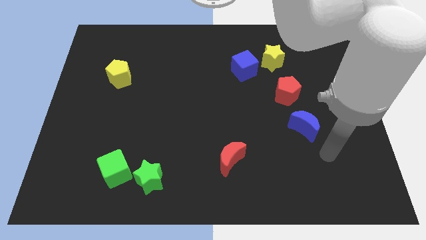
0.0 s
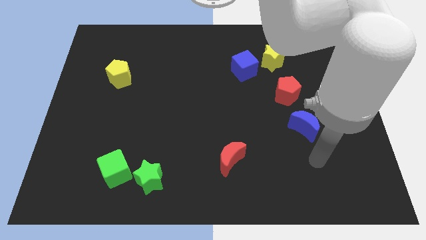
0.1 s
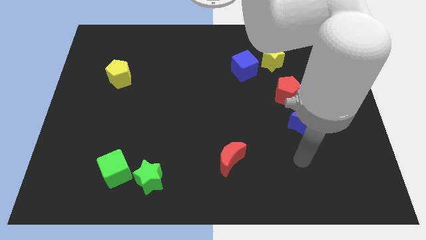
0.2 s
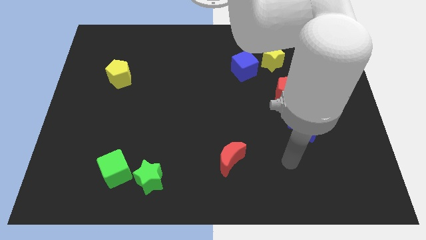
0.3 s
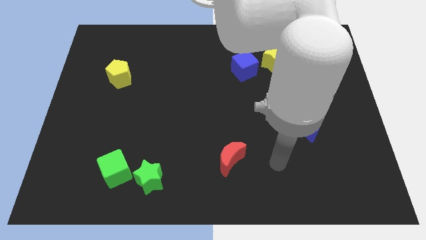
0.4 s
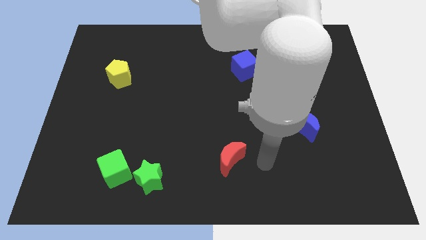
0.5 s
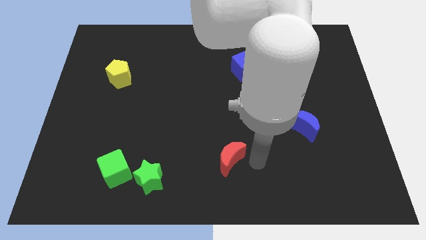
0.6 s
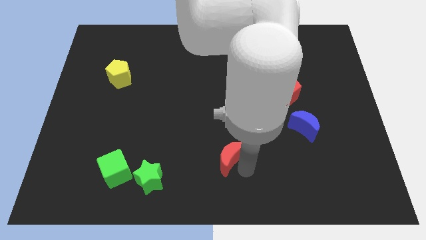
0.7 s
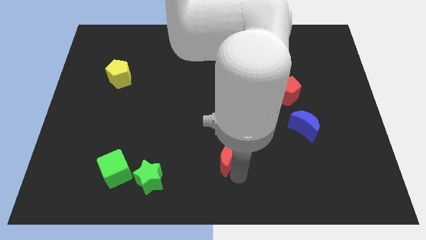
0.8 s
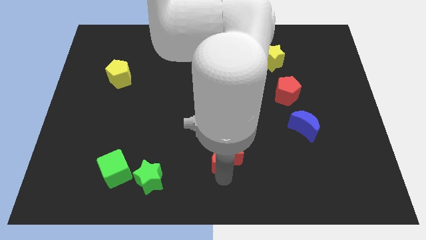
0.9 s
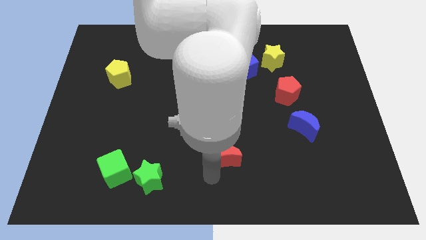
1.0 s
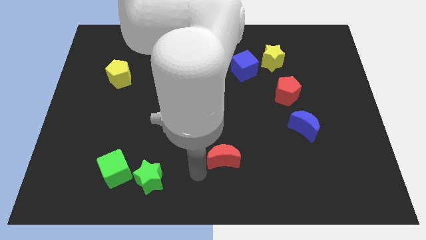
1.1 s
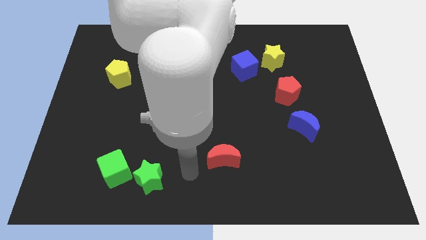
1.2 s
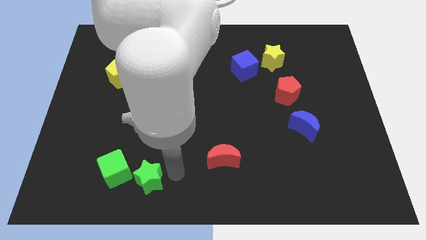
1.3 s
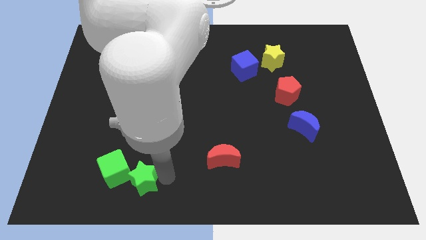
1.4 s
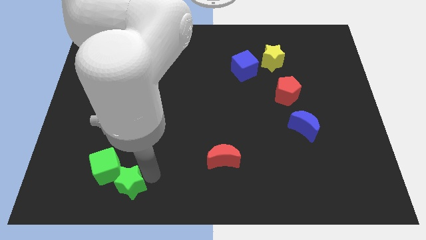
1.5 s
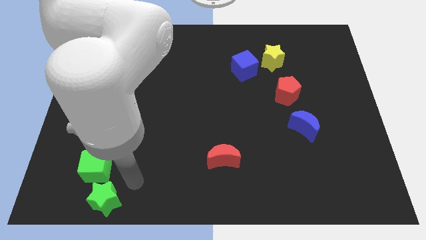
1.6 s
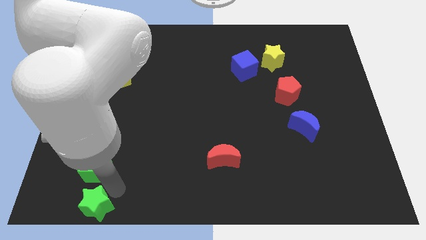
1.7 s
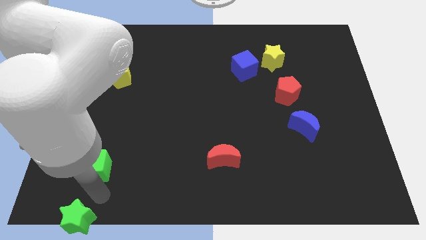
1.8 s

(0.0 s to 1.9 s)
pull the green cube apart from the green star

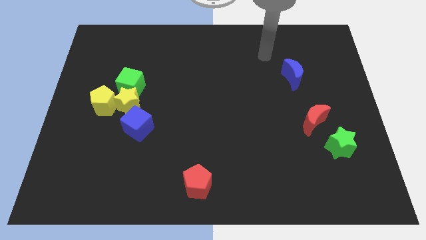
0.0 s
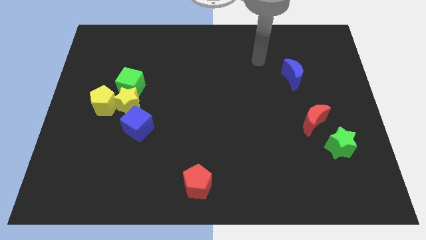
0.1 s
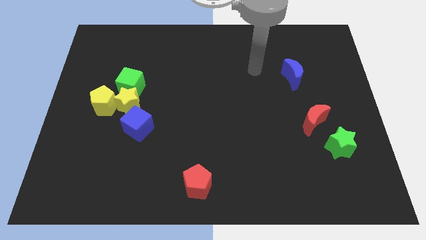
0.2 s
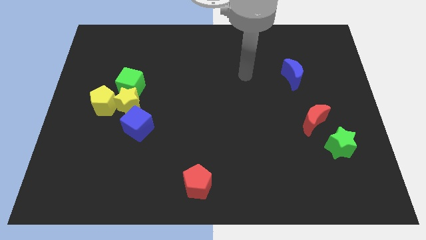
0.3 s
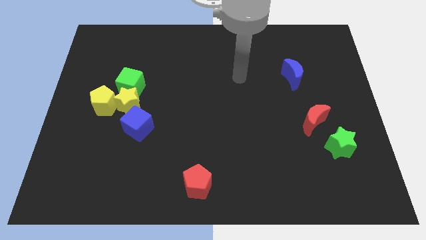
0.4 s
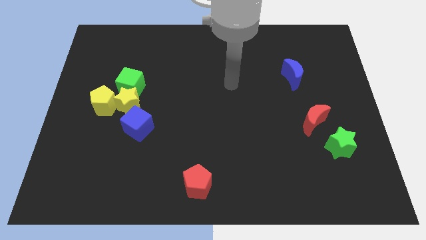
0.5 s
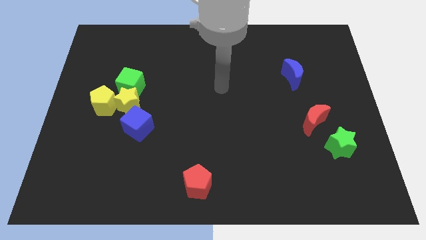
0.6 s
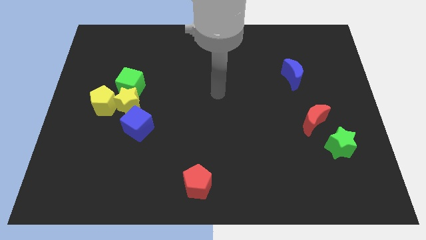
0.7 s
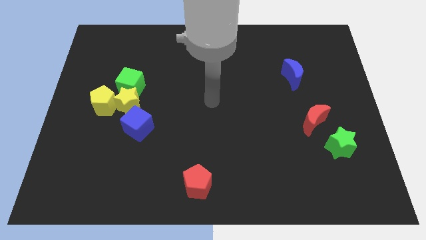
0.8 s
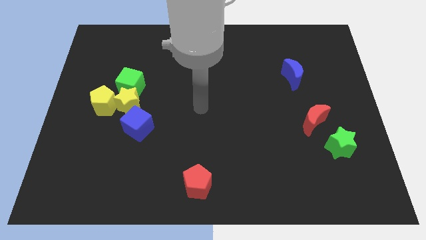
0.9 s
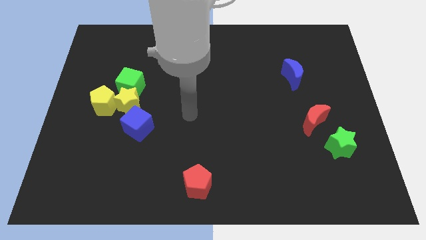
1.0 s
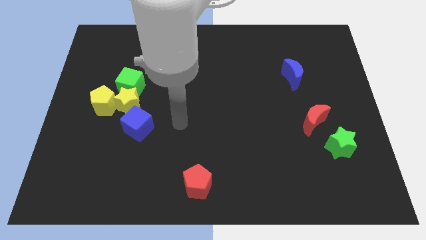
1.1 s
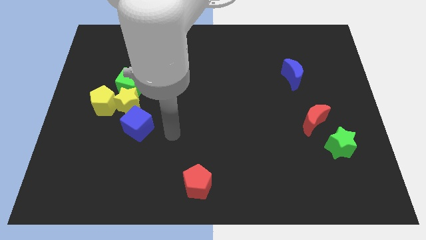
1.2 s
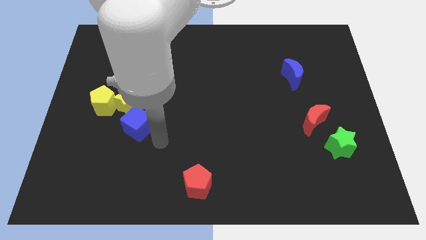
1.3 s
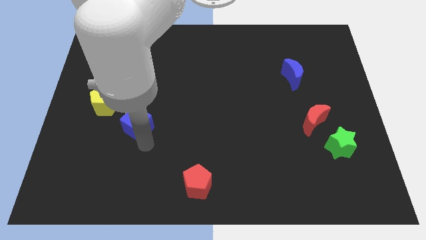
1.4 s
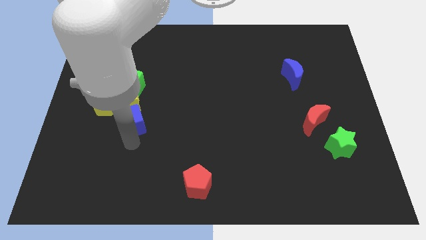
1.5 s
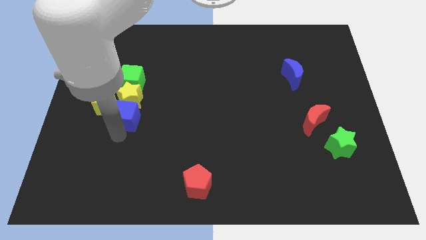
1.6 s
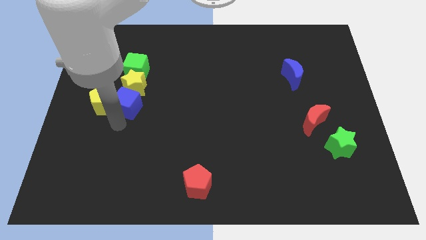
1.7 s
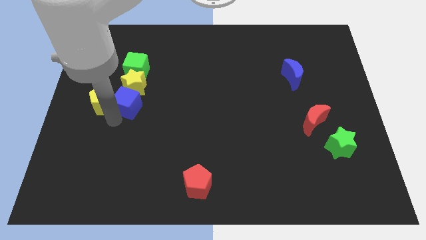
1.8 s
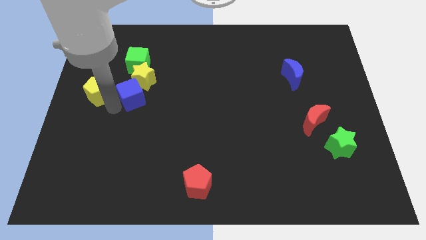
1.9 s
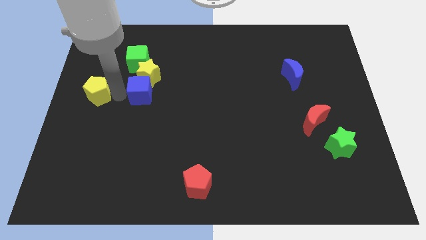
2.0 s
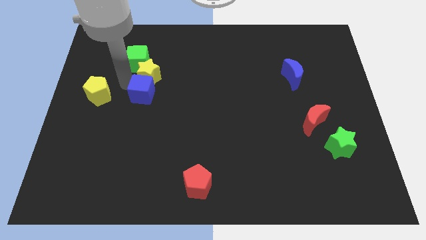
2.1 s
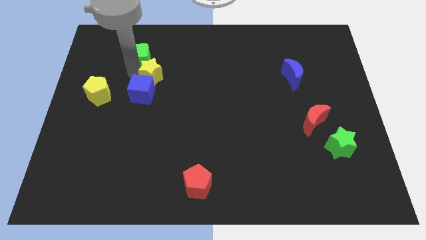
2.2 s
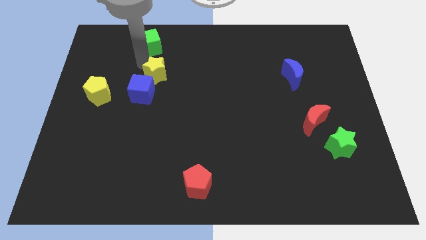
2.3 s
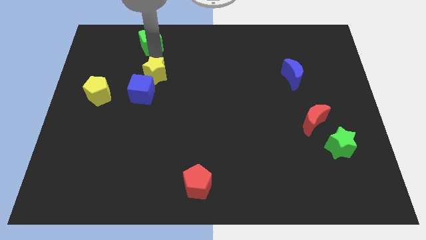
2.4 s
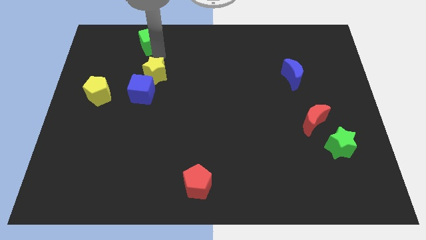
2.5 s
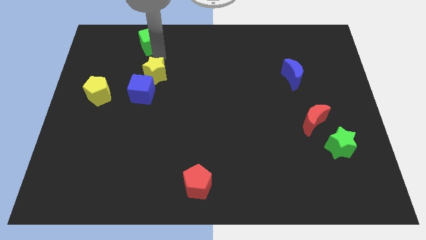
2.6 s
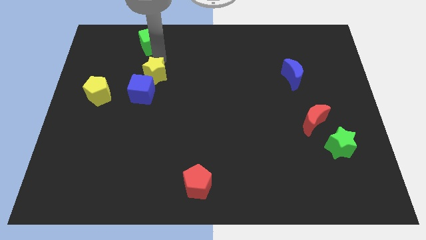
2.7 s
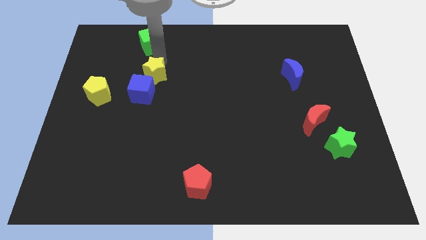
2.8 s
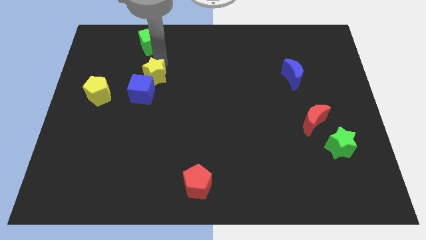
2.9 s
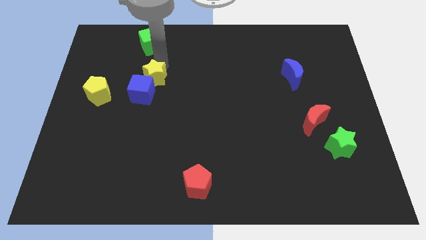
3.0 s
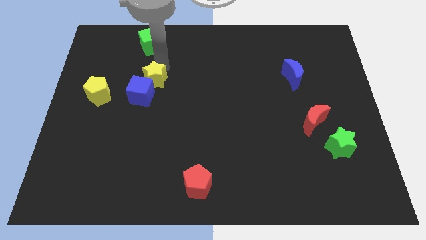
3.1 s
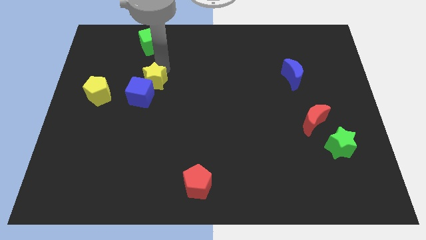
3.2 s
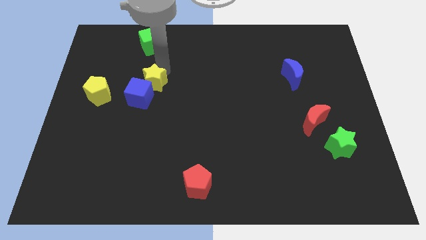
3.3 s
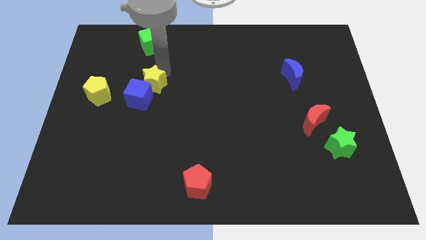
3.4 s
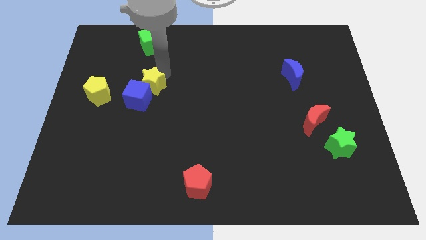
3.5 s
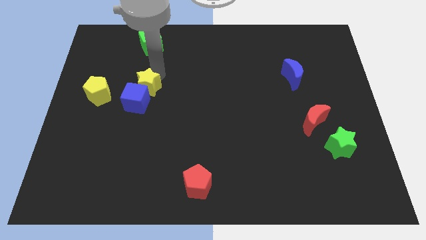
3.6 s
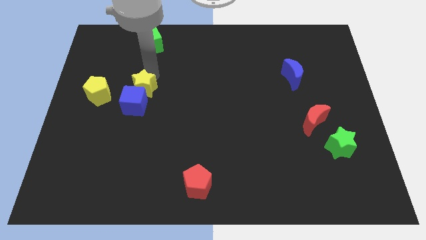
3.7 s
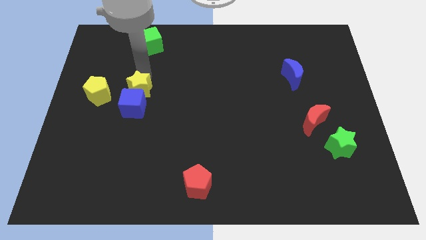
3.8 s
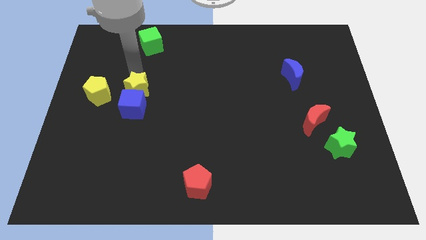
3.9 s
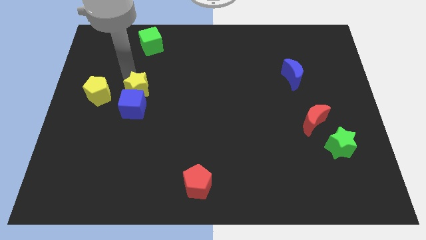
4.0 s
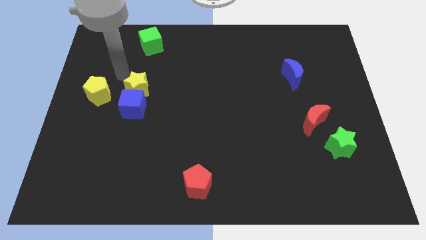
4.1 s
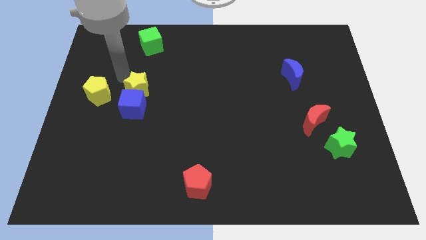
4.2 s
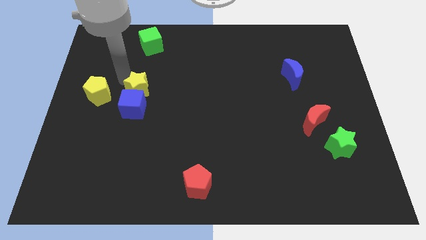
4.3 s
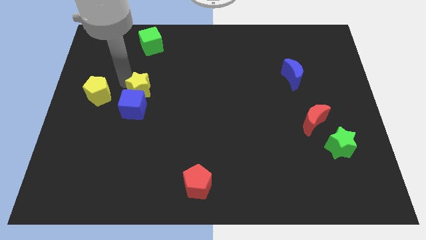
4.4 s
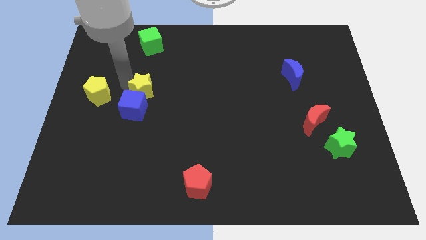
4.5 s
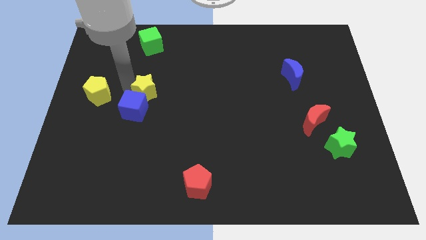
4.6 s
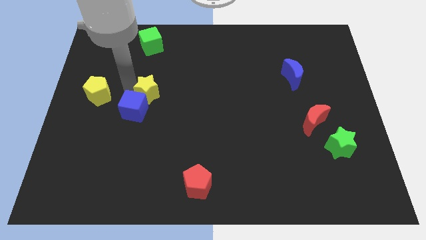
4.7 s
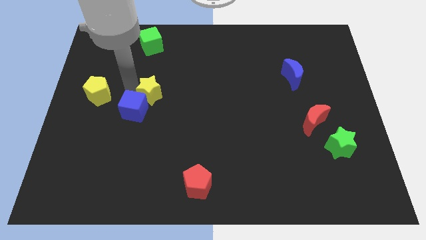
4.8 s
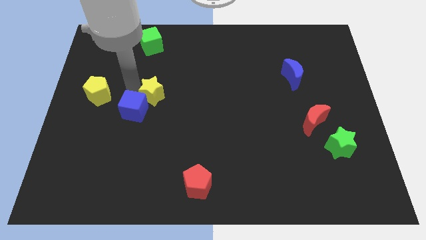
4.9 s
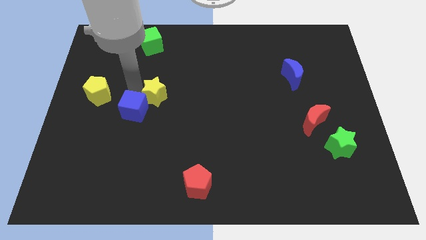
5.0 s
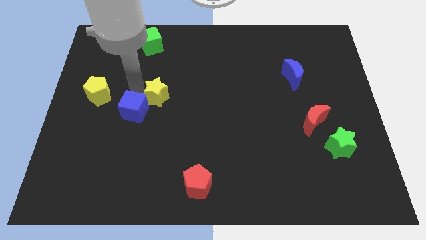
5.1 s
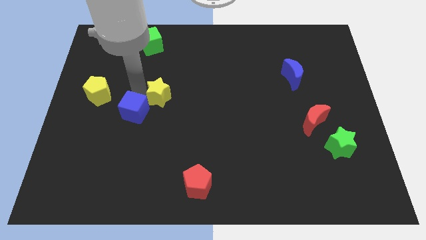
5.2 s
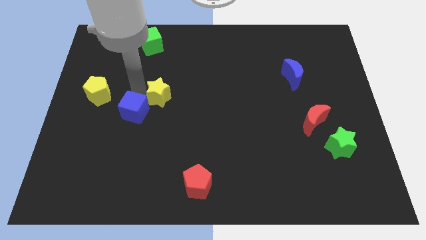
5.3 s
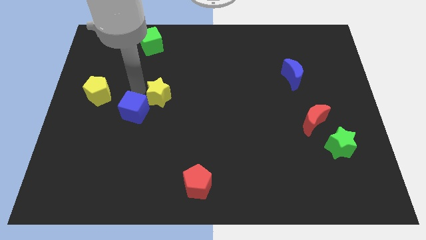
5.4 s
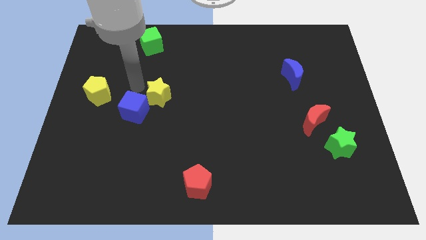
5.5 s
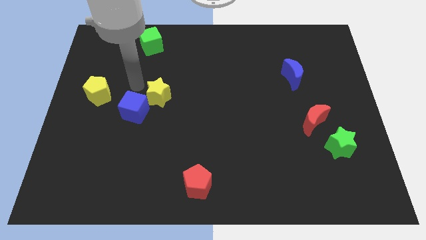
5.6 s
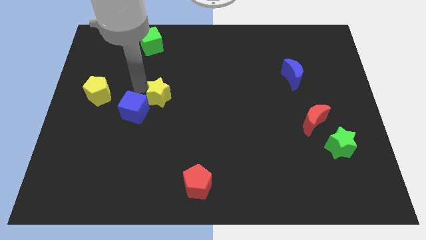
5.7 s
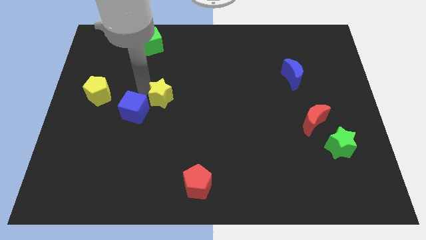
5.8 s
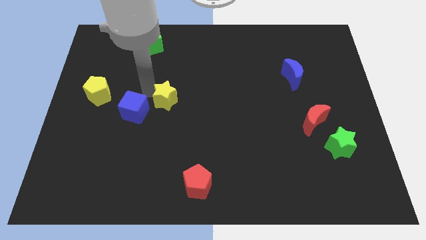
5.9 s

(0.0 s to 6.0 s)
separate the yellow star from the green cube, yellow pentagon, and blue cube

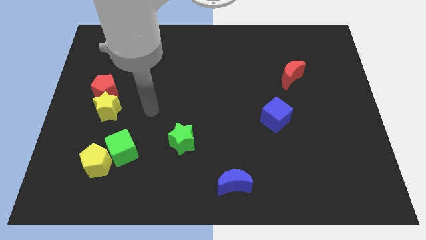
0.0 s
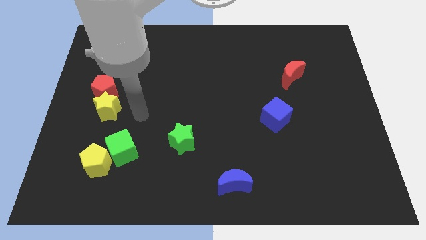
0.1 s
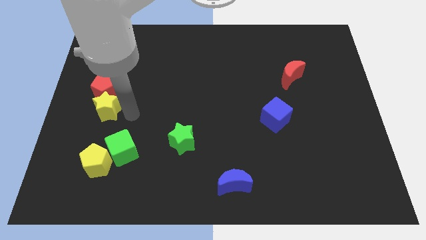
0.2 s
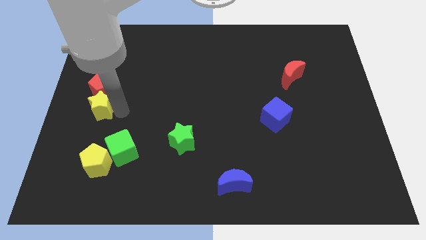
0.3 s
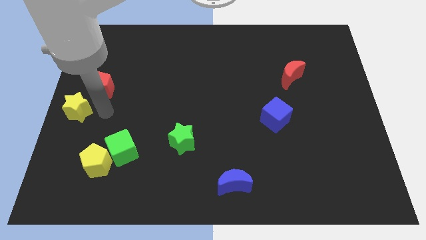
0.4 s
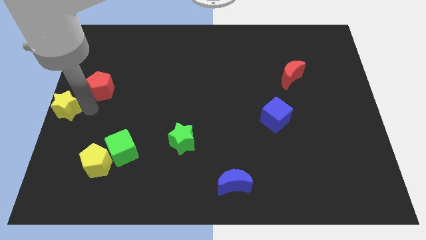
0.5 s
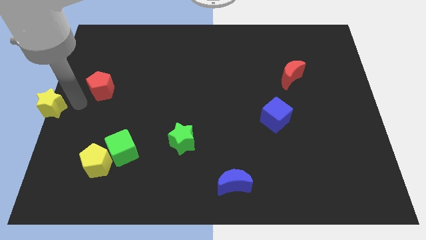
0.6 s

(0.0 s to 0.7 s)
move the red pentagon away from the yellow star

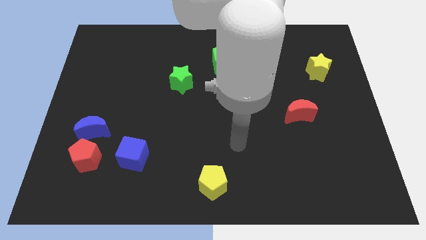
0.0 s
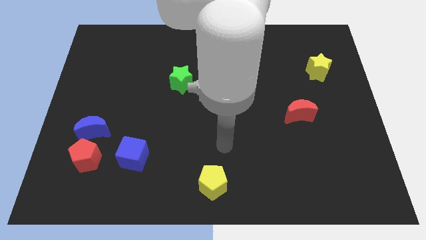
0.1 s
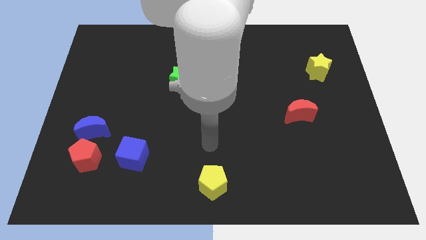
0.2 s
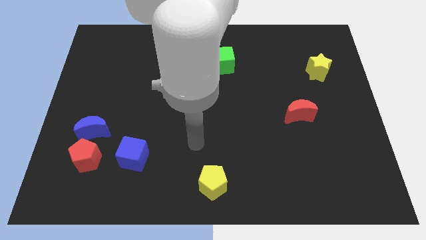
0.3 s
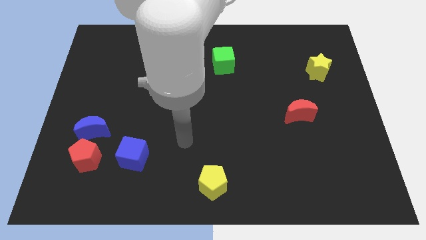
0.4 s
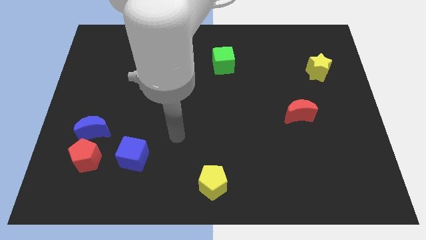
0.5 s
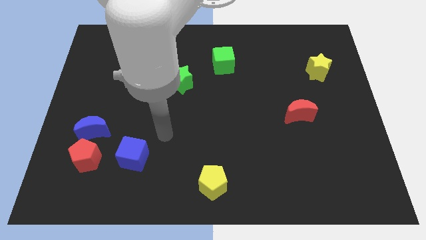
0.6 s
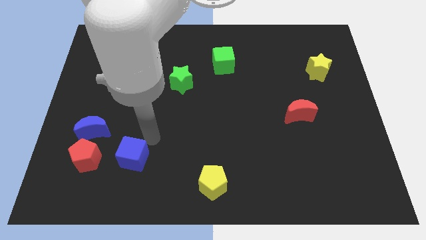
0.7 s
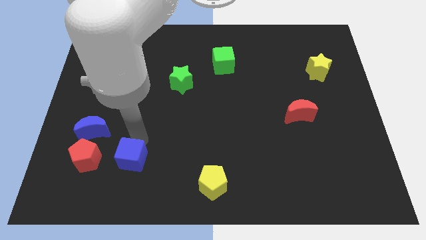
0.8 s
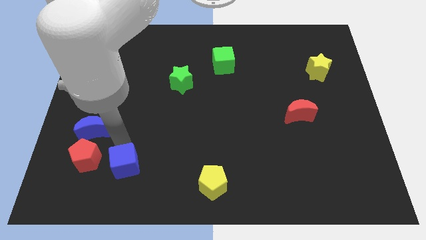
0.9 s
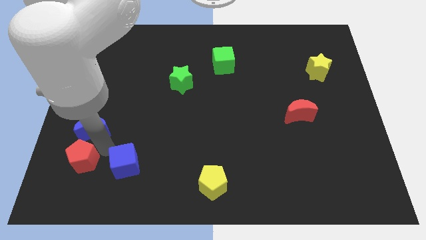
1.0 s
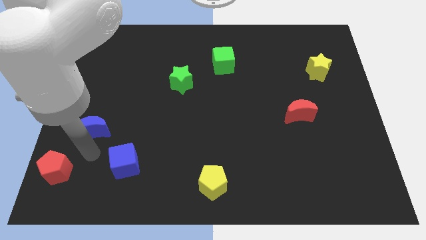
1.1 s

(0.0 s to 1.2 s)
separate the blue moon from the red pentagon
